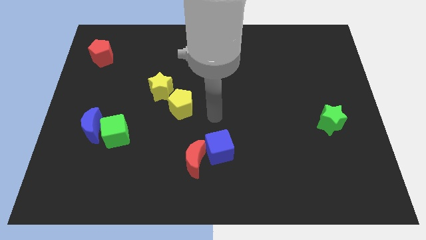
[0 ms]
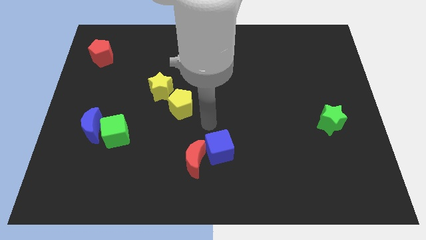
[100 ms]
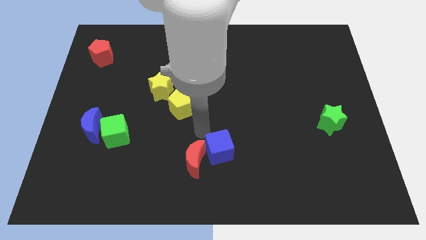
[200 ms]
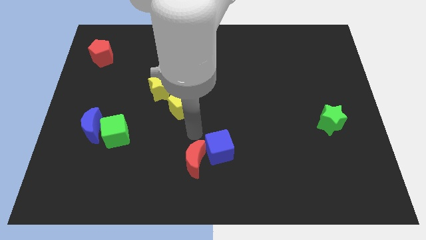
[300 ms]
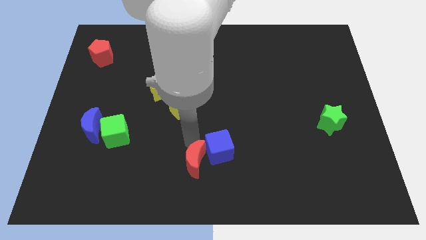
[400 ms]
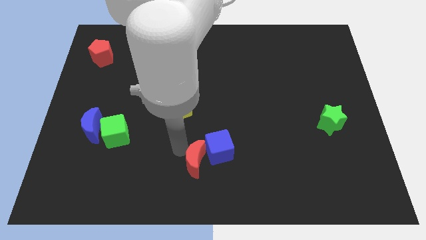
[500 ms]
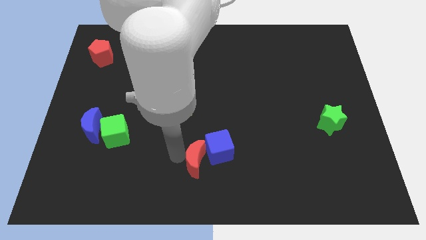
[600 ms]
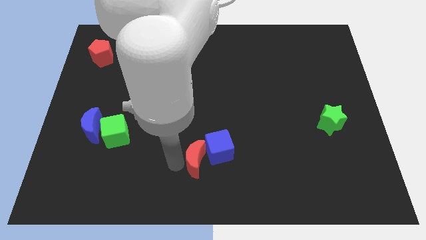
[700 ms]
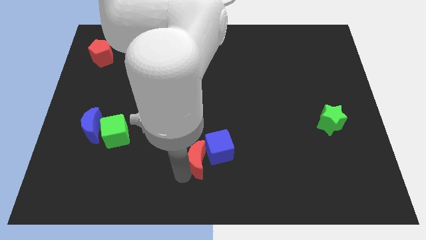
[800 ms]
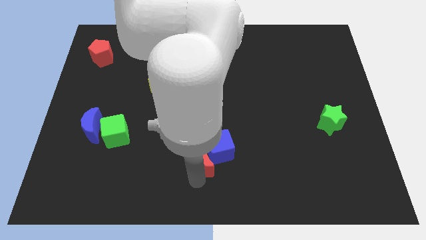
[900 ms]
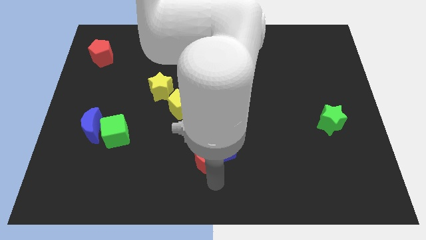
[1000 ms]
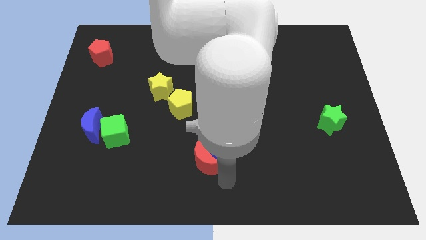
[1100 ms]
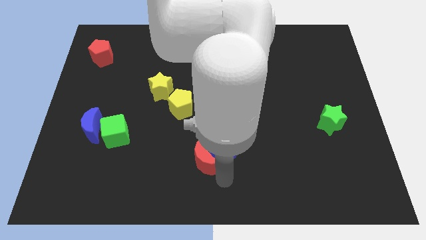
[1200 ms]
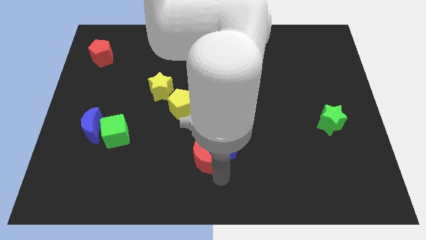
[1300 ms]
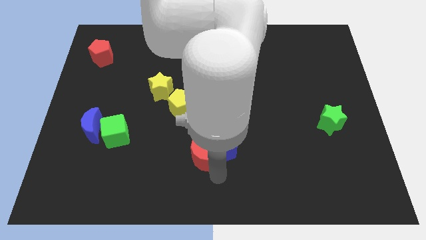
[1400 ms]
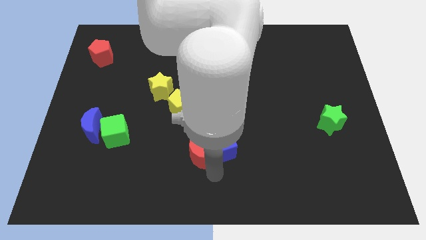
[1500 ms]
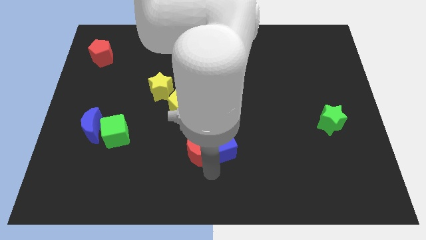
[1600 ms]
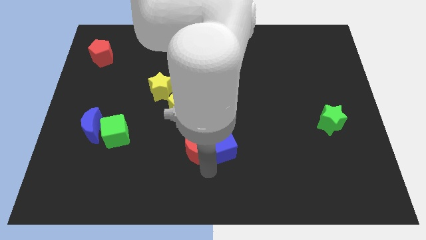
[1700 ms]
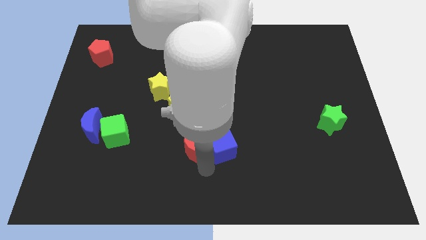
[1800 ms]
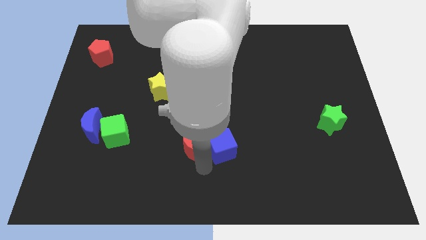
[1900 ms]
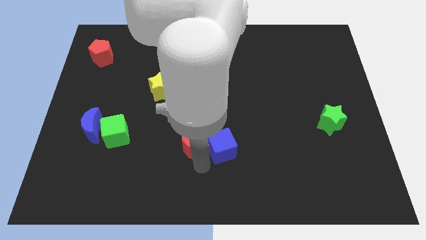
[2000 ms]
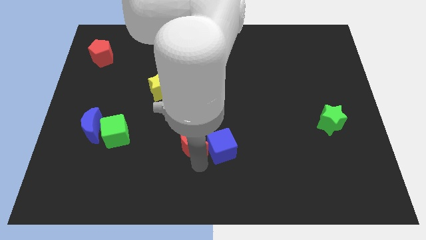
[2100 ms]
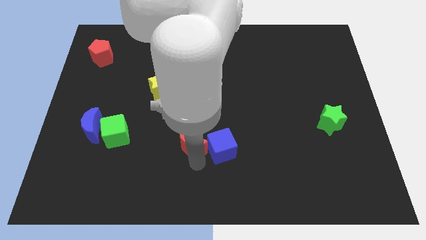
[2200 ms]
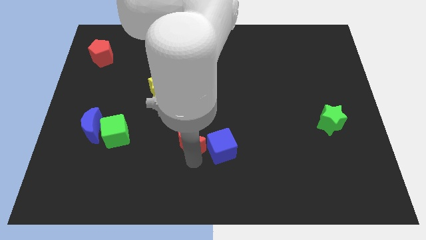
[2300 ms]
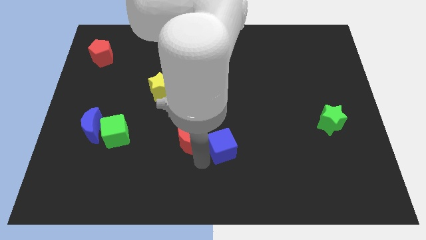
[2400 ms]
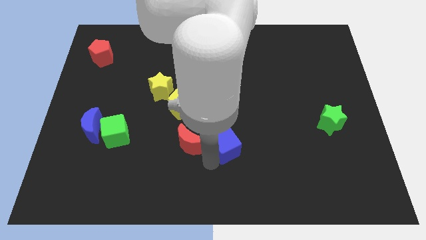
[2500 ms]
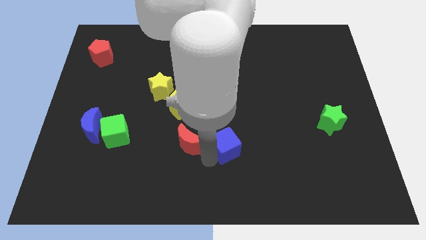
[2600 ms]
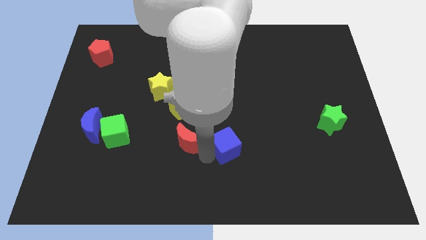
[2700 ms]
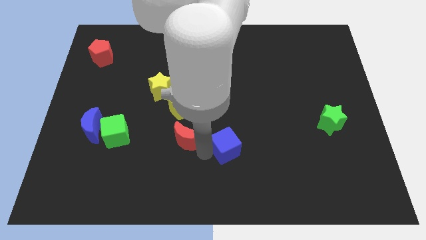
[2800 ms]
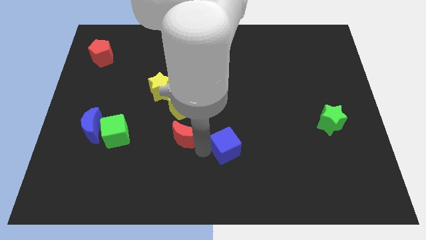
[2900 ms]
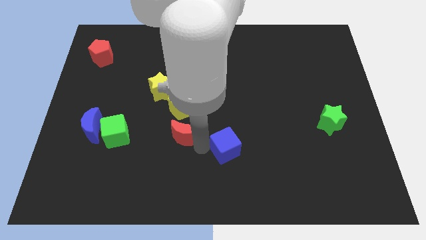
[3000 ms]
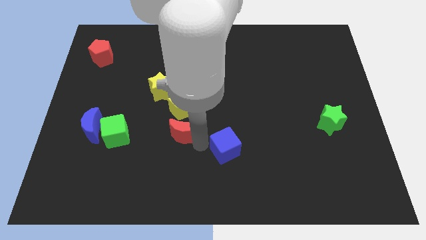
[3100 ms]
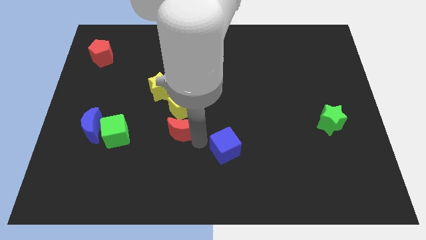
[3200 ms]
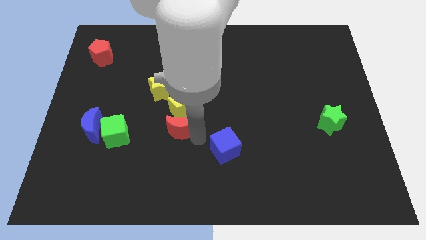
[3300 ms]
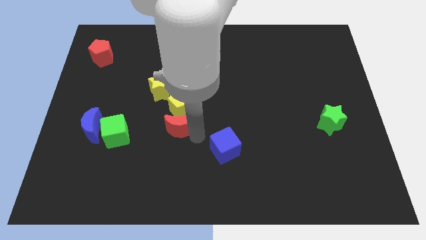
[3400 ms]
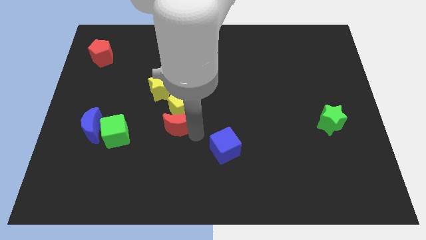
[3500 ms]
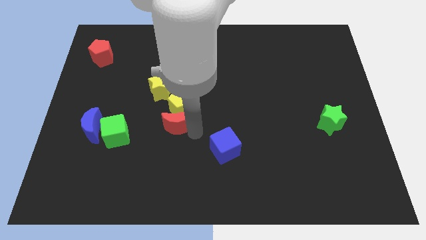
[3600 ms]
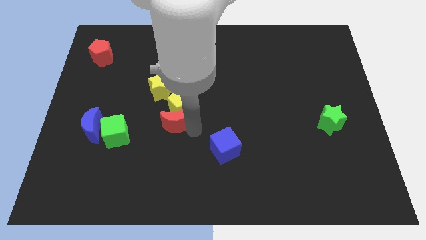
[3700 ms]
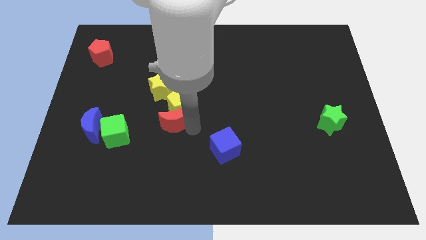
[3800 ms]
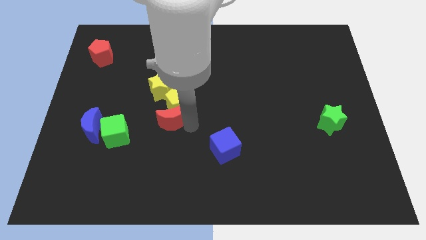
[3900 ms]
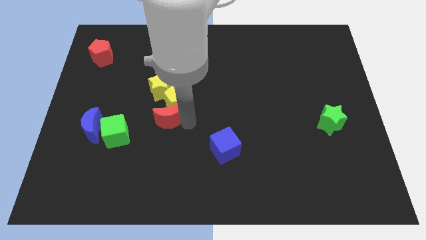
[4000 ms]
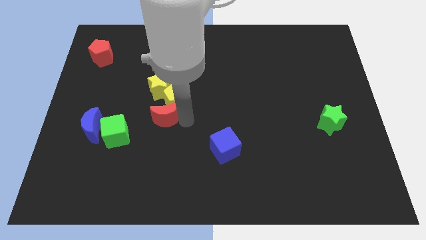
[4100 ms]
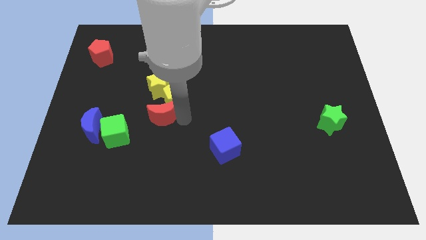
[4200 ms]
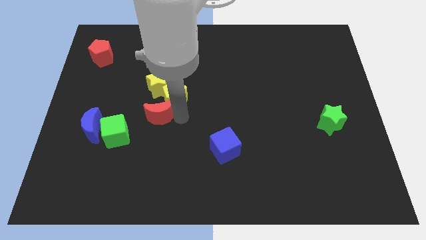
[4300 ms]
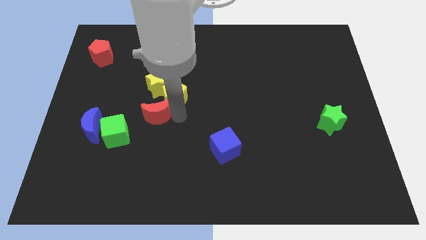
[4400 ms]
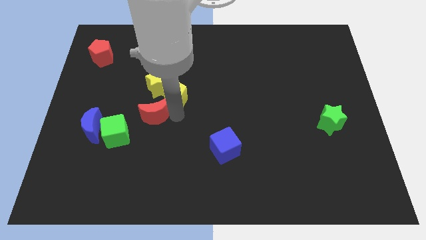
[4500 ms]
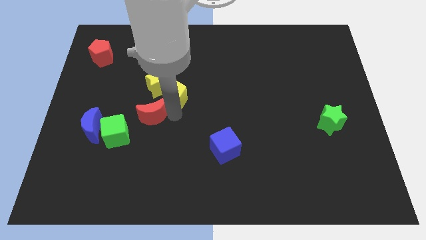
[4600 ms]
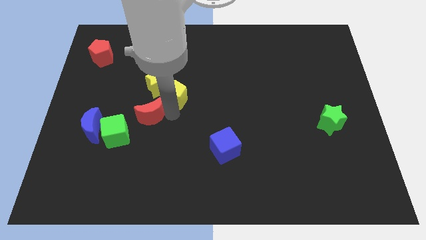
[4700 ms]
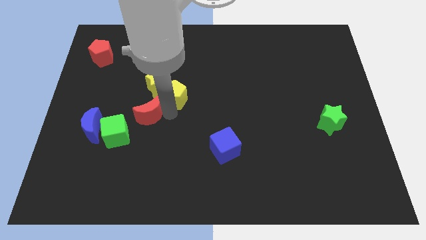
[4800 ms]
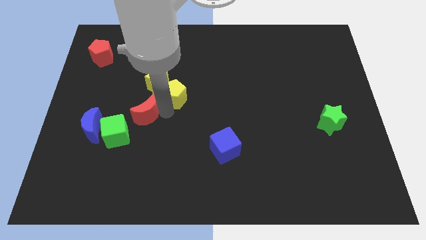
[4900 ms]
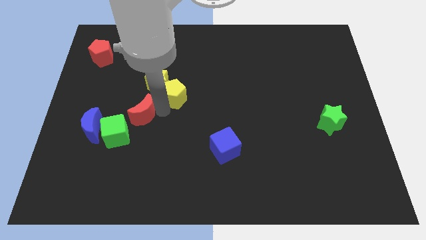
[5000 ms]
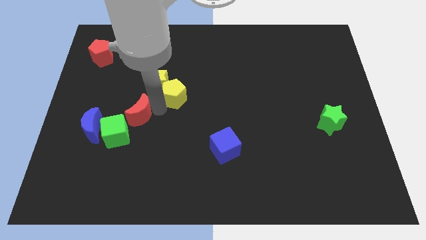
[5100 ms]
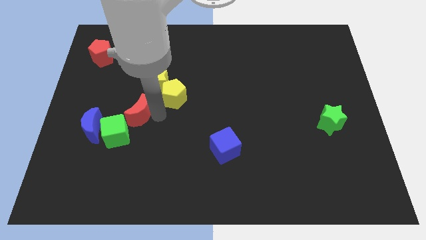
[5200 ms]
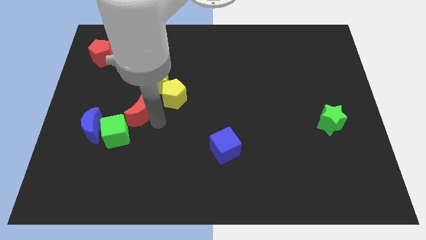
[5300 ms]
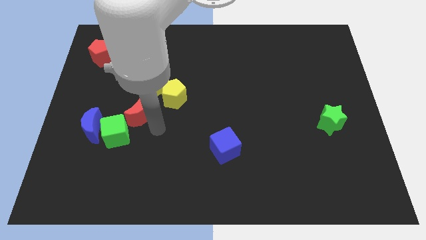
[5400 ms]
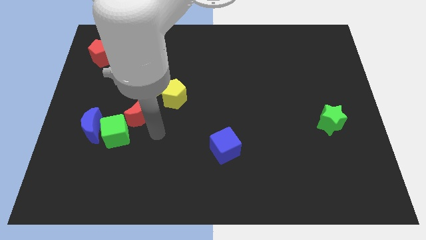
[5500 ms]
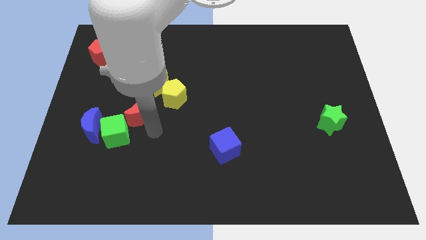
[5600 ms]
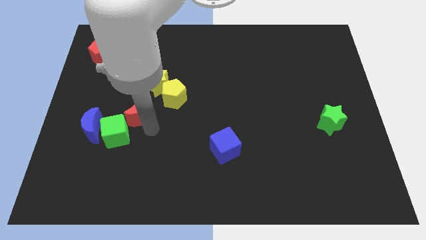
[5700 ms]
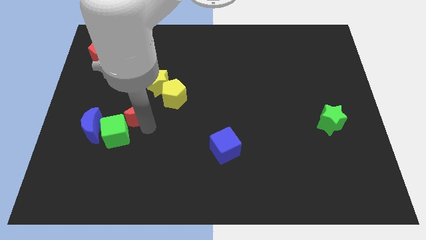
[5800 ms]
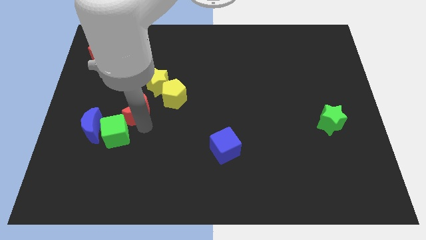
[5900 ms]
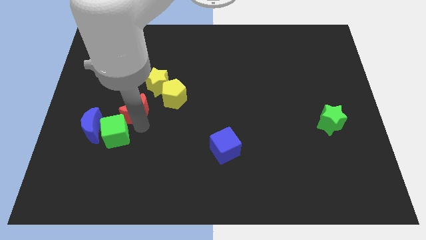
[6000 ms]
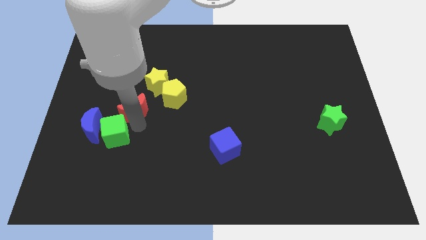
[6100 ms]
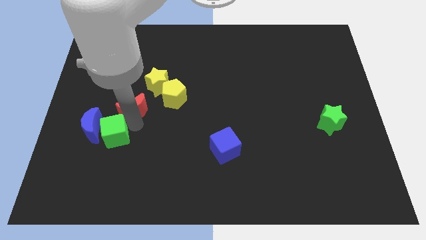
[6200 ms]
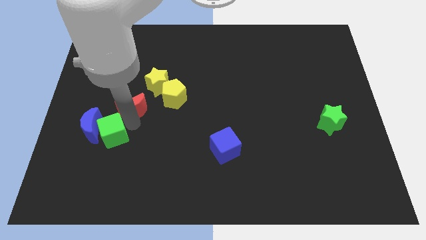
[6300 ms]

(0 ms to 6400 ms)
move the red moon up and to the left

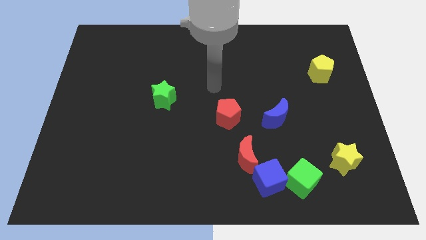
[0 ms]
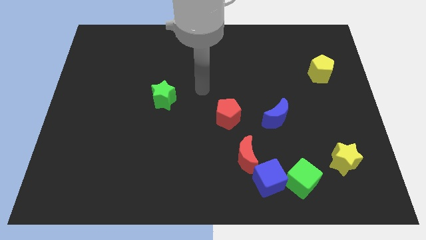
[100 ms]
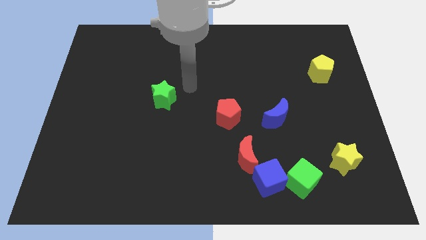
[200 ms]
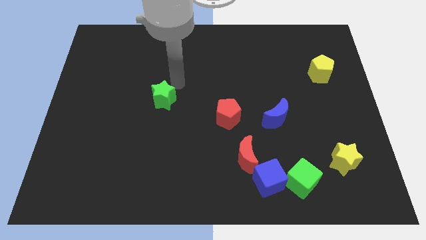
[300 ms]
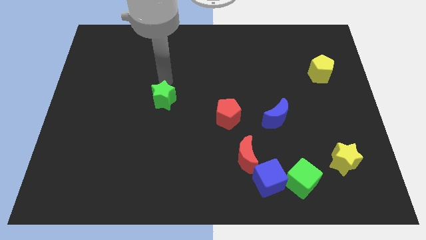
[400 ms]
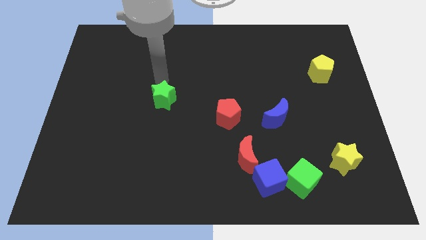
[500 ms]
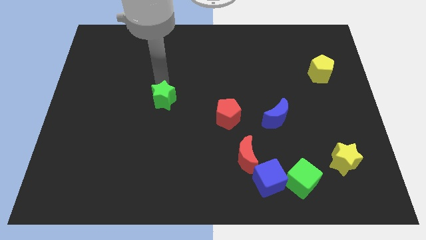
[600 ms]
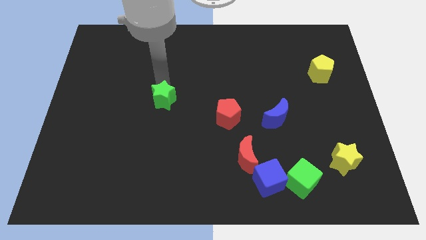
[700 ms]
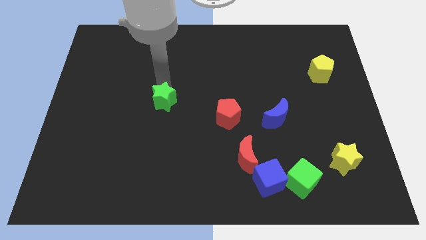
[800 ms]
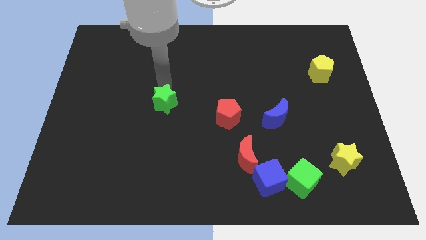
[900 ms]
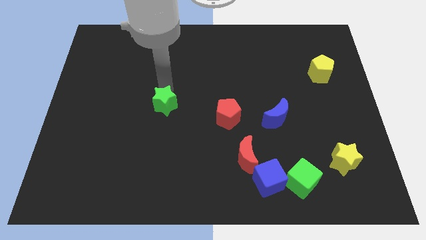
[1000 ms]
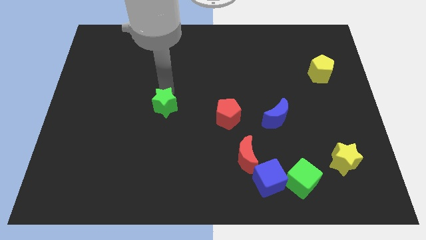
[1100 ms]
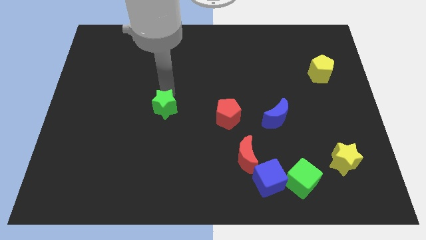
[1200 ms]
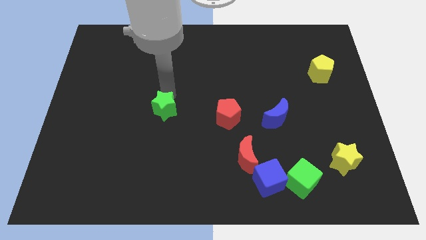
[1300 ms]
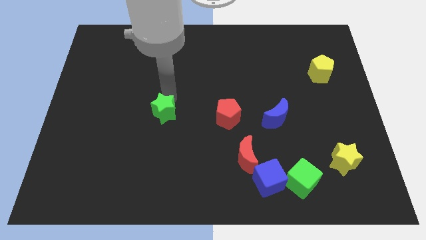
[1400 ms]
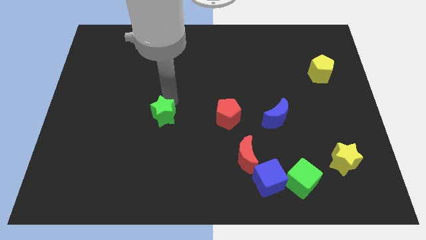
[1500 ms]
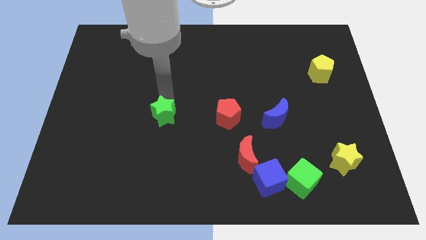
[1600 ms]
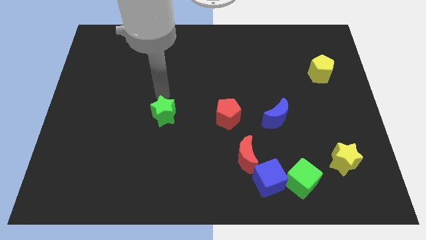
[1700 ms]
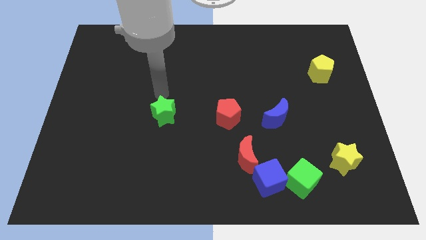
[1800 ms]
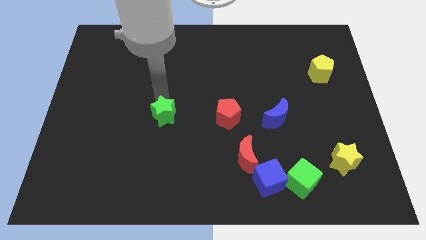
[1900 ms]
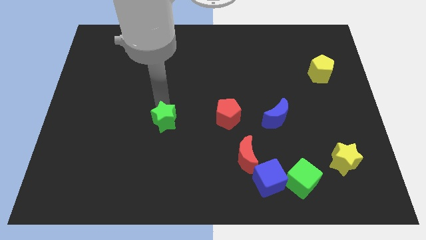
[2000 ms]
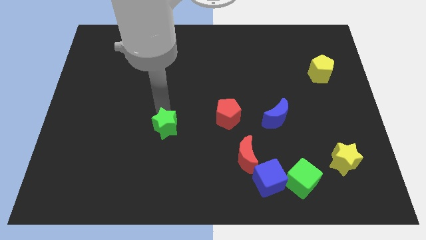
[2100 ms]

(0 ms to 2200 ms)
slightly push the green star downwards
